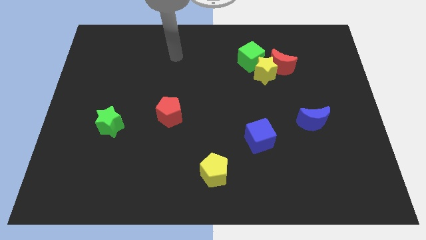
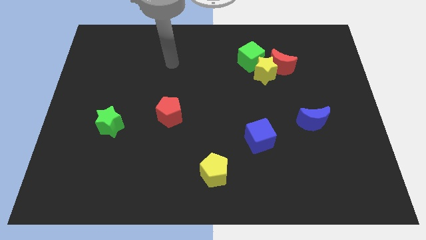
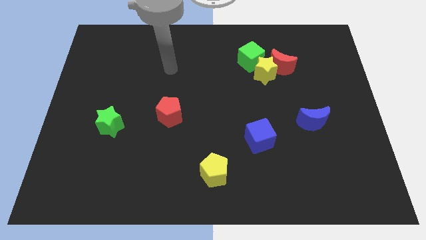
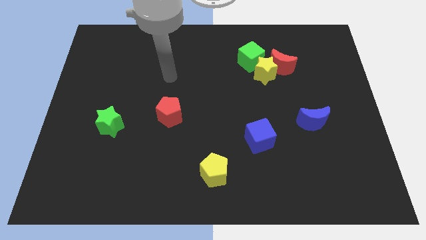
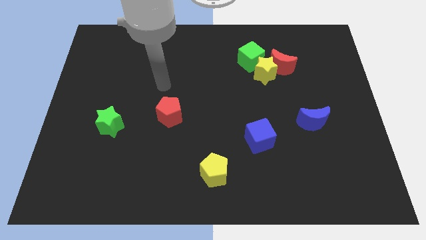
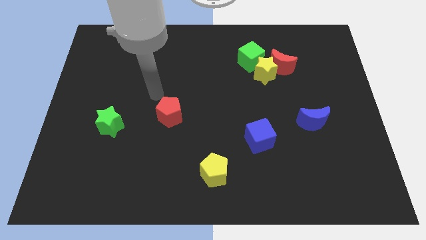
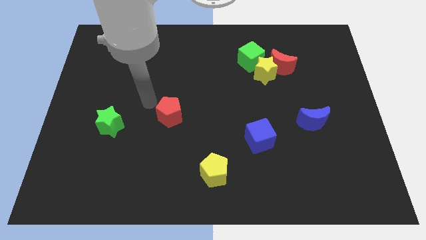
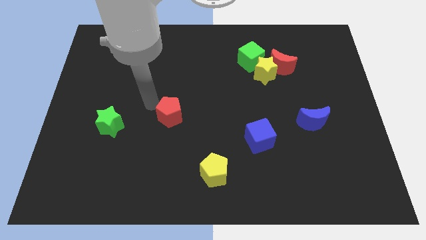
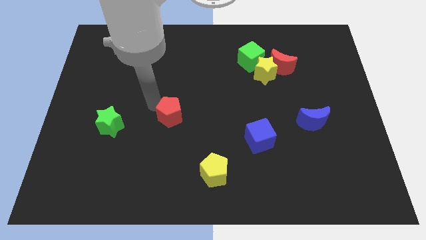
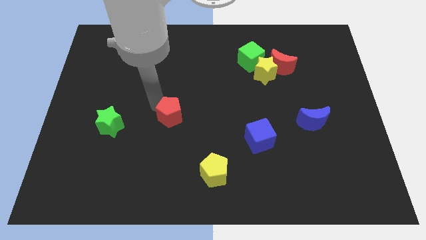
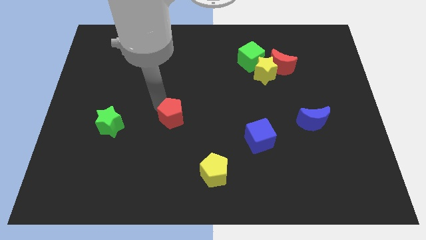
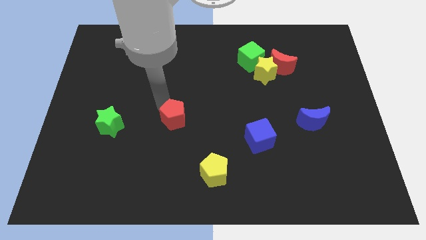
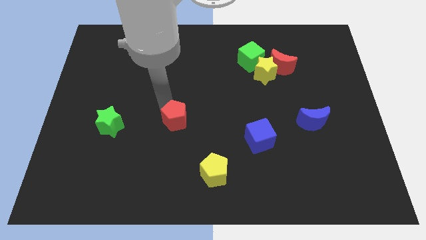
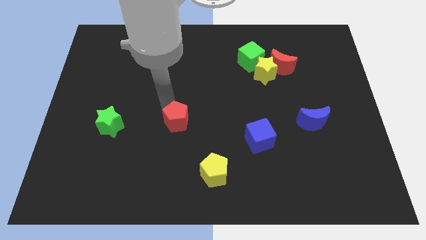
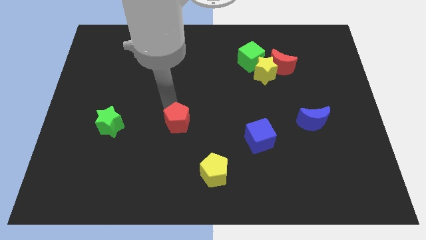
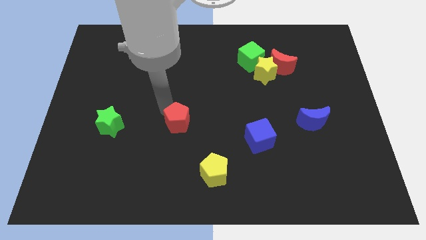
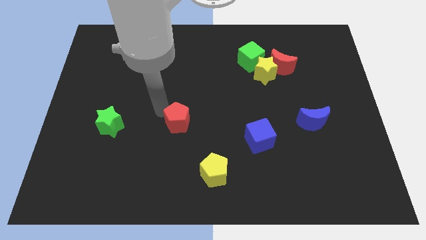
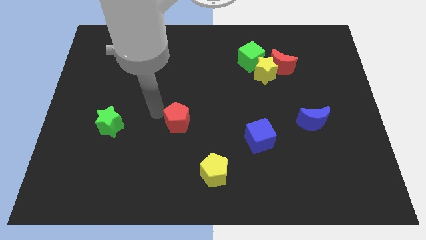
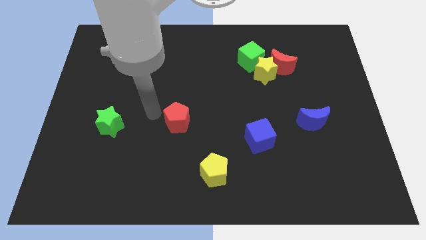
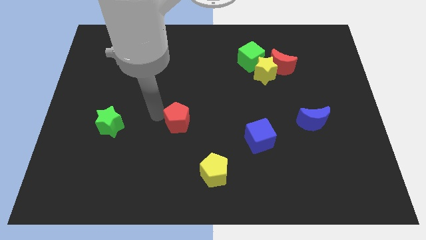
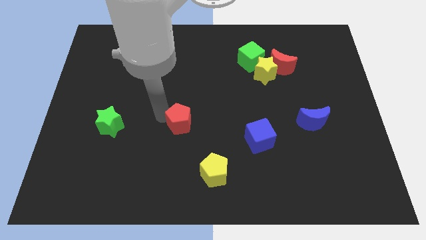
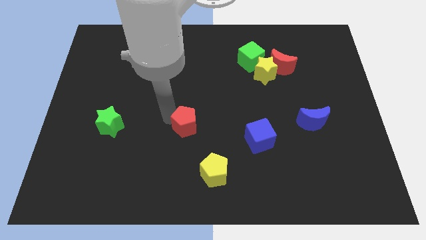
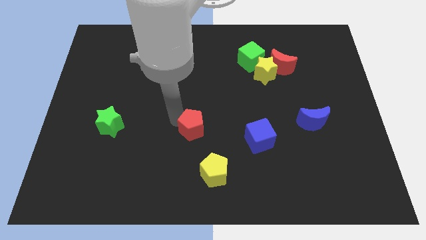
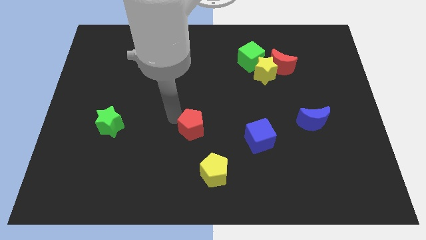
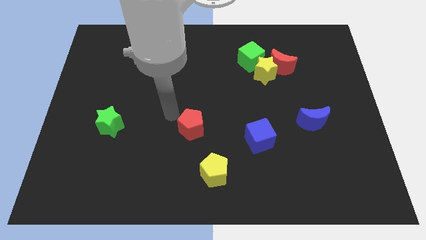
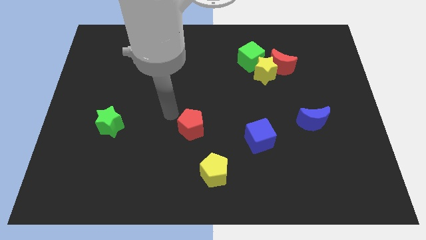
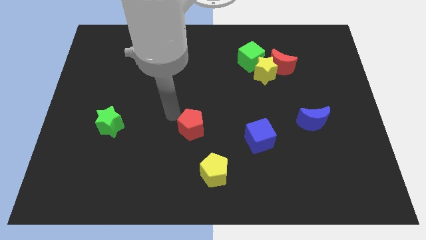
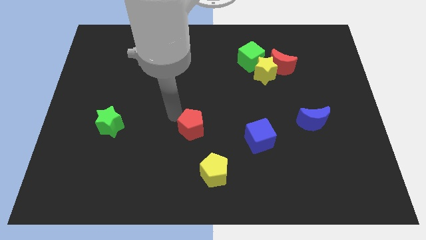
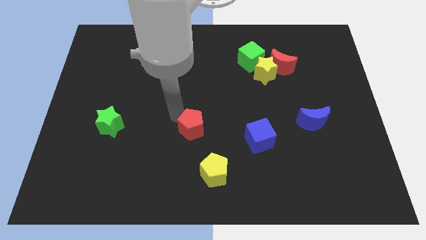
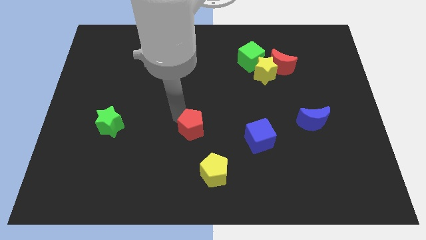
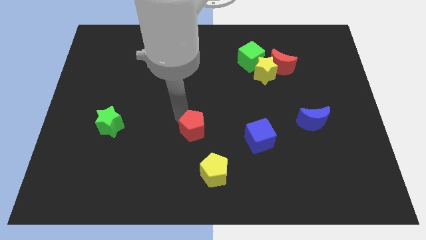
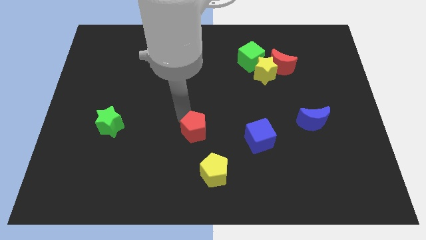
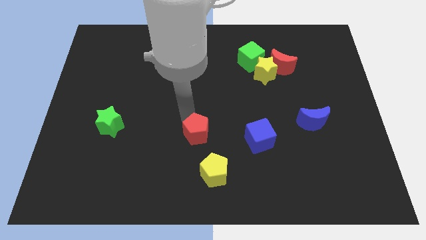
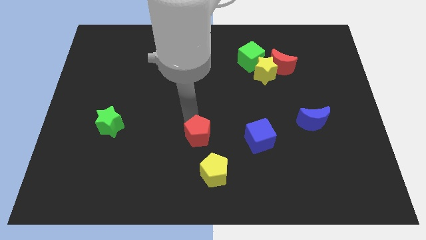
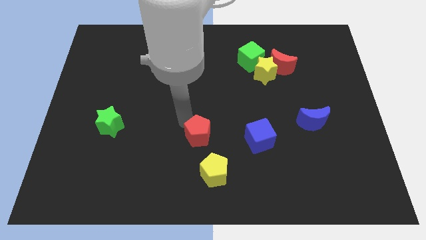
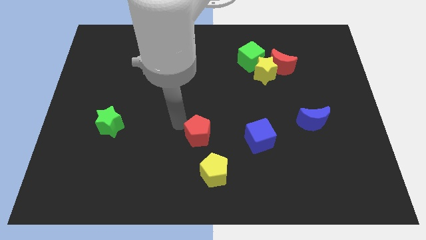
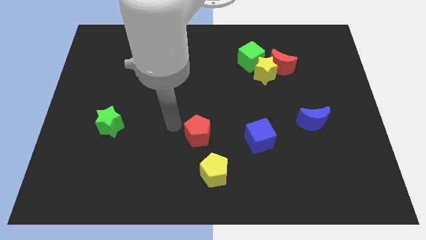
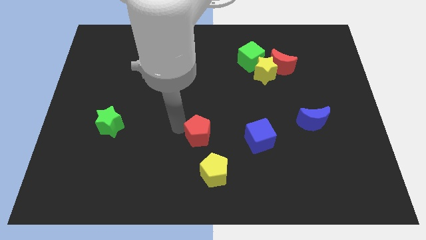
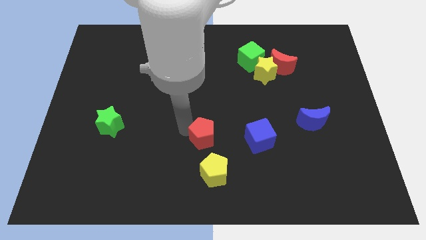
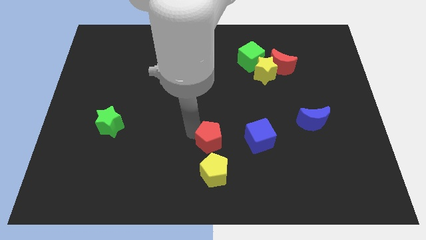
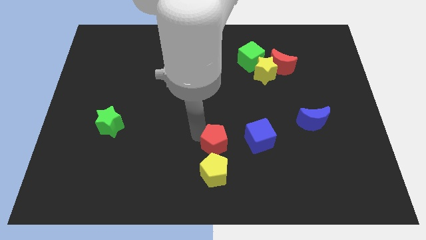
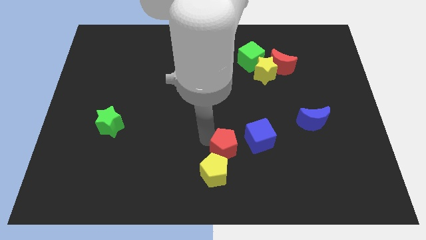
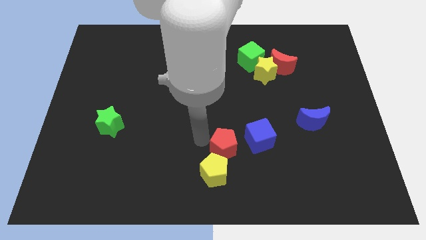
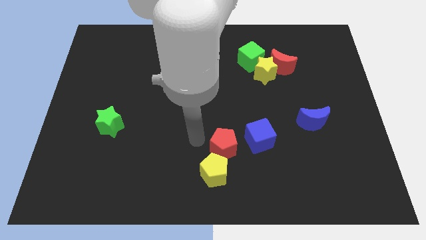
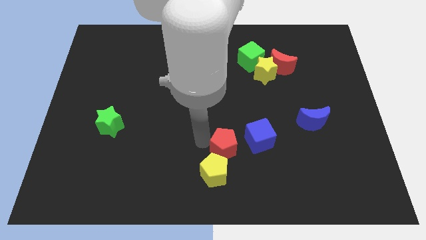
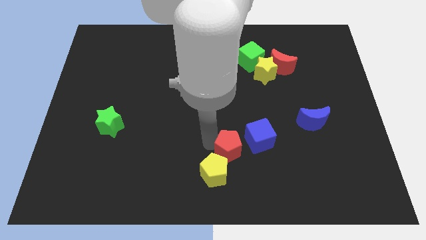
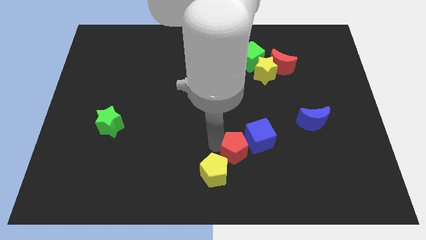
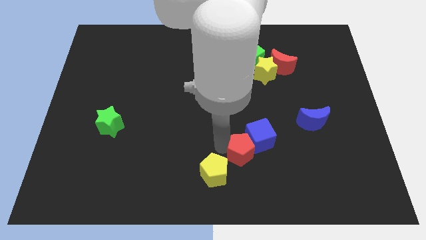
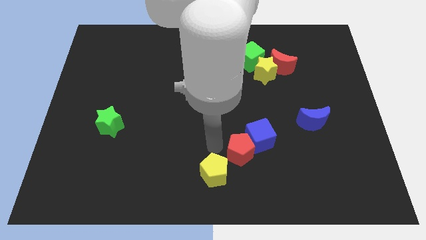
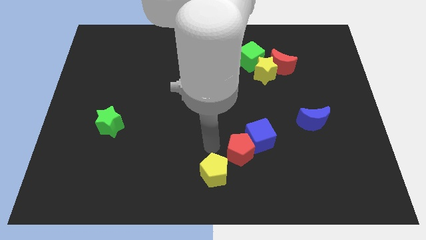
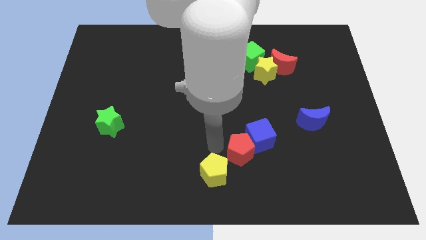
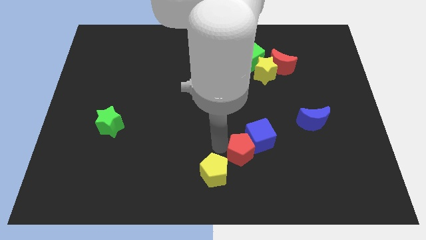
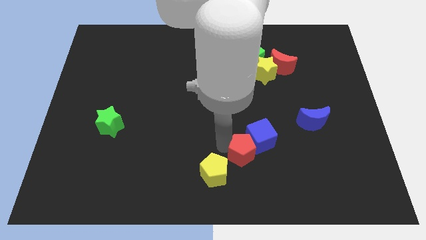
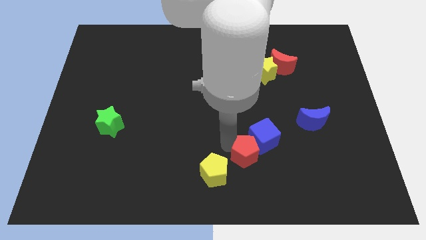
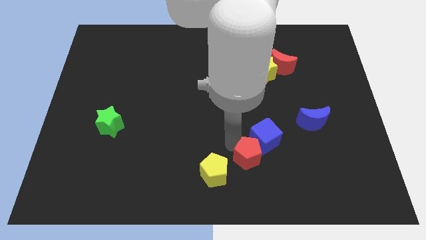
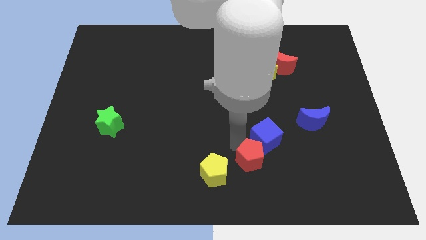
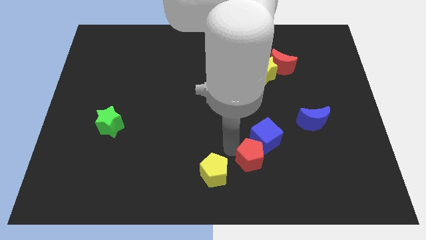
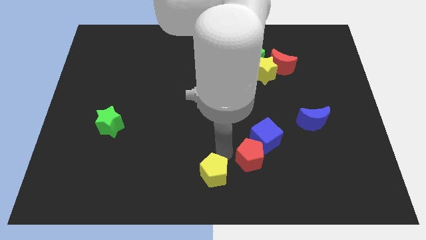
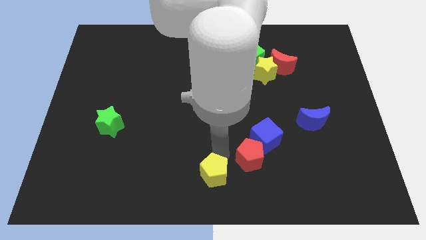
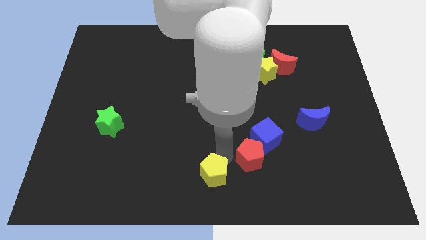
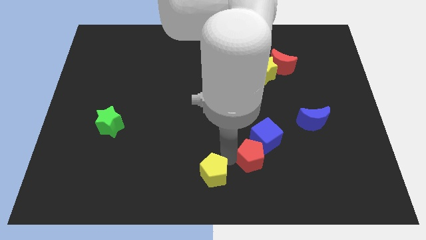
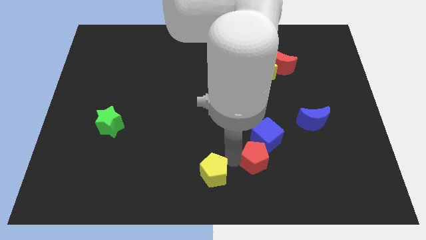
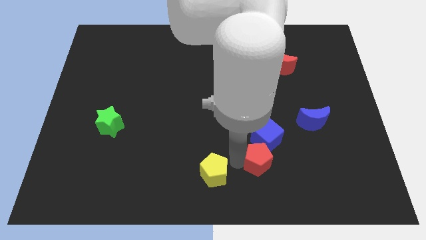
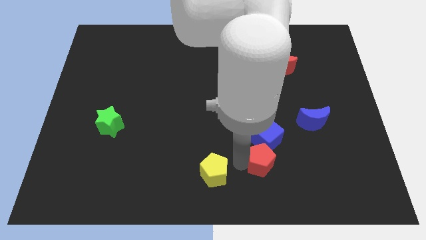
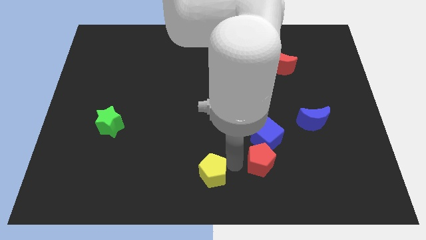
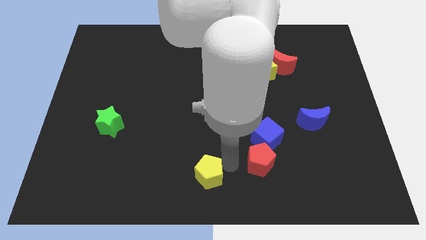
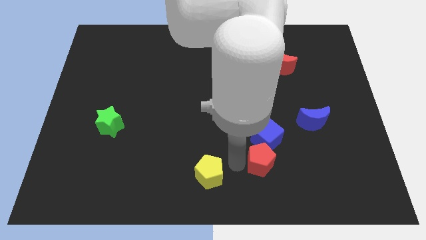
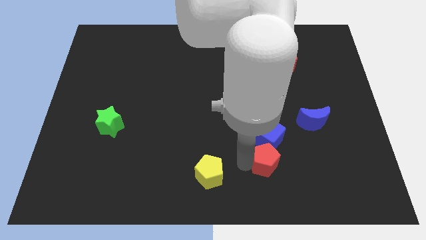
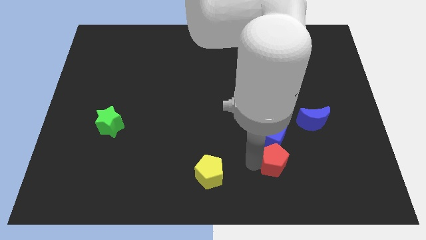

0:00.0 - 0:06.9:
put the red pentagon to the bottom right side of the blue cube
